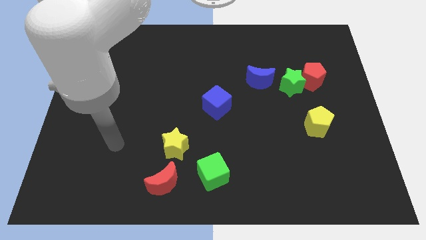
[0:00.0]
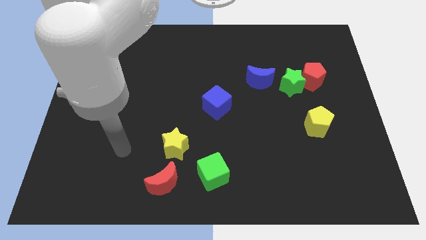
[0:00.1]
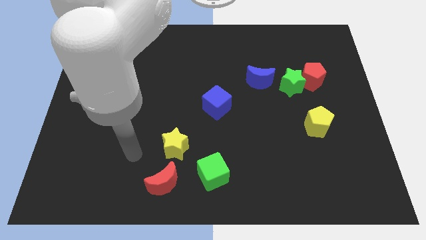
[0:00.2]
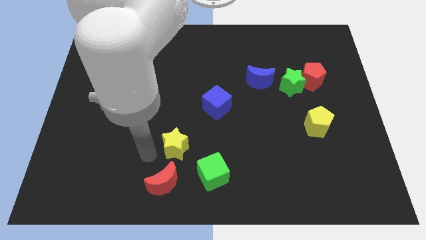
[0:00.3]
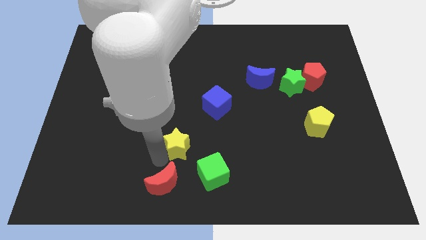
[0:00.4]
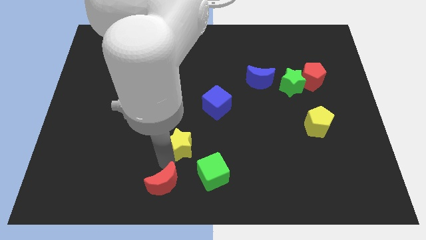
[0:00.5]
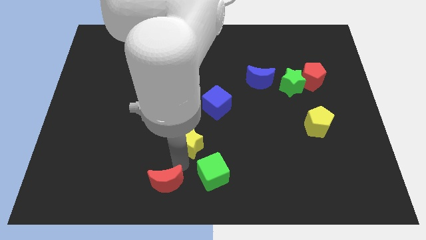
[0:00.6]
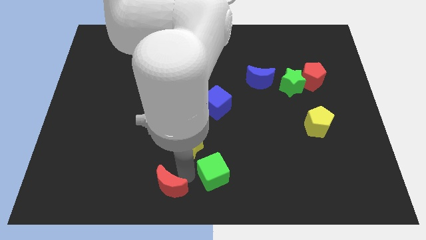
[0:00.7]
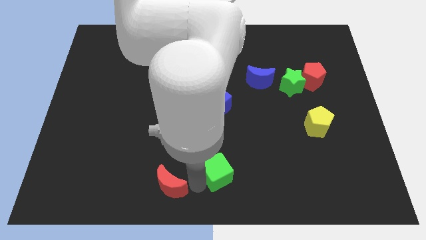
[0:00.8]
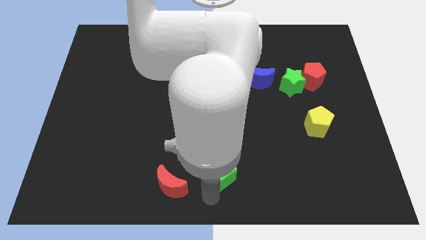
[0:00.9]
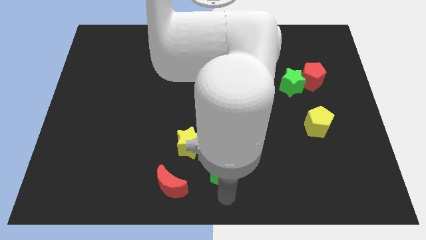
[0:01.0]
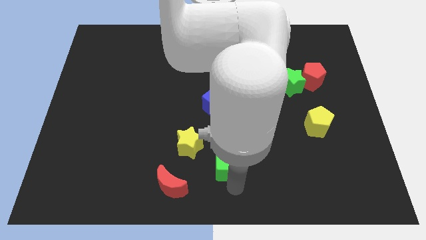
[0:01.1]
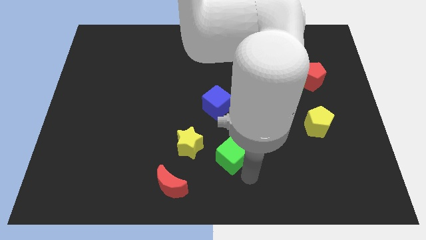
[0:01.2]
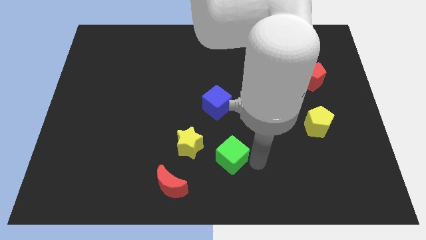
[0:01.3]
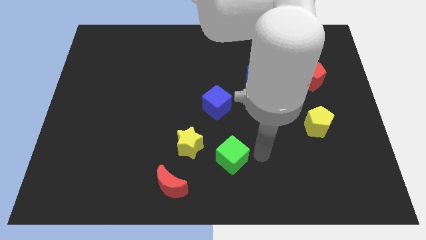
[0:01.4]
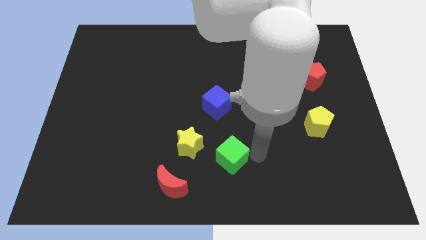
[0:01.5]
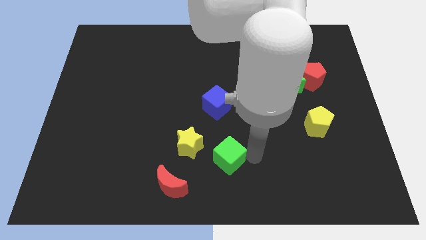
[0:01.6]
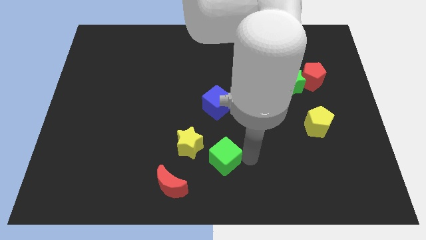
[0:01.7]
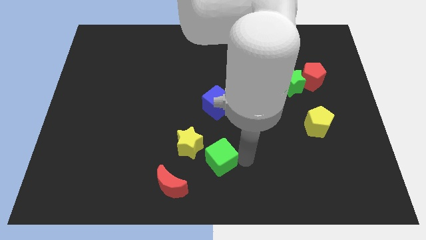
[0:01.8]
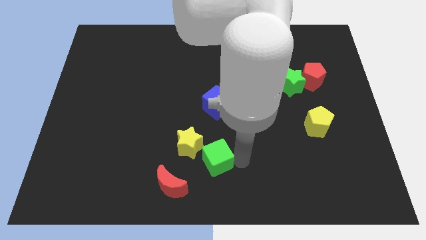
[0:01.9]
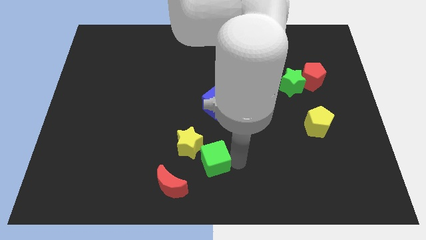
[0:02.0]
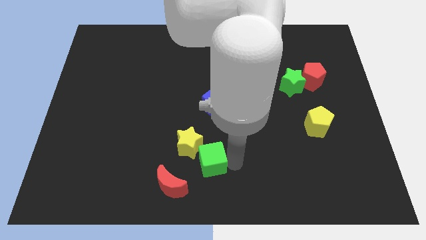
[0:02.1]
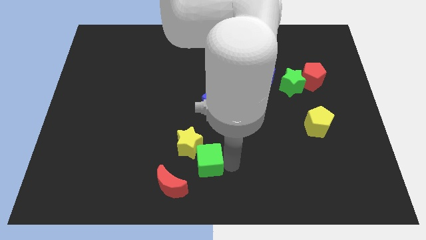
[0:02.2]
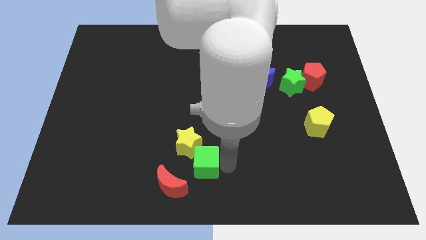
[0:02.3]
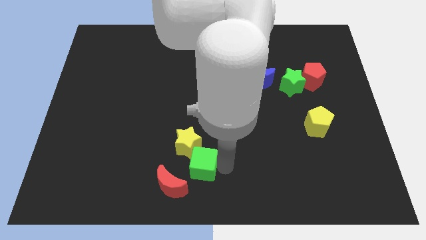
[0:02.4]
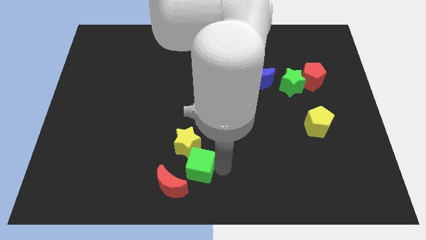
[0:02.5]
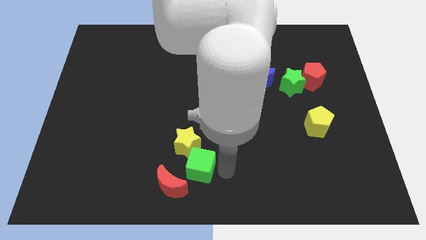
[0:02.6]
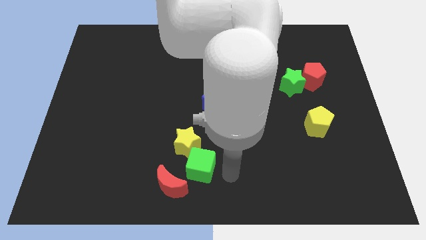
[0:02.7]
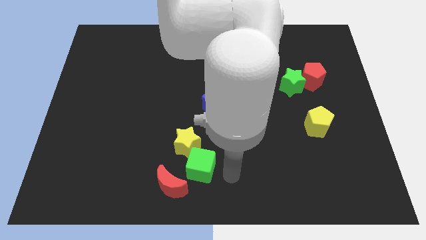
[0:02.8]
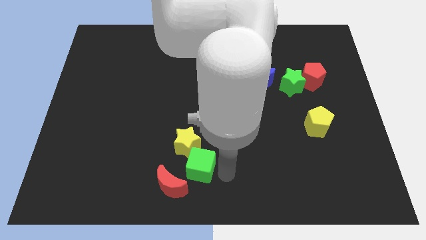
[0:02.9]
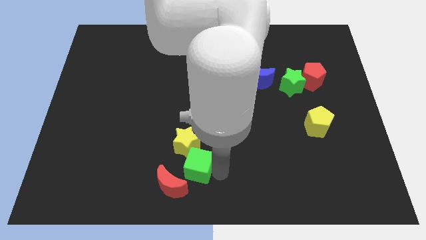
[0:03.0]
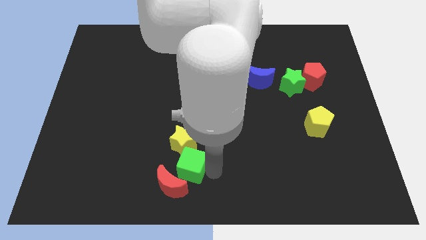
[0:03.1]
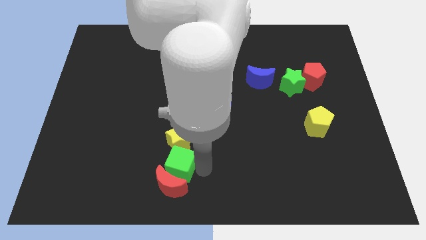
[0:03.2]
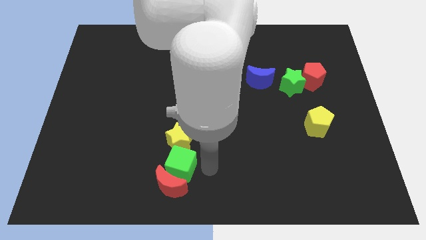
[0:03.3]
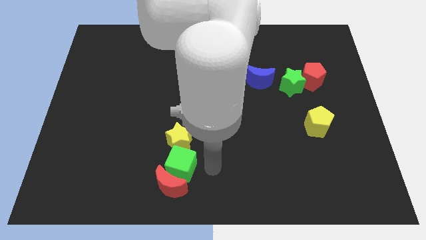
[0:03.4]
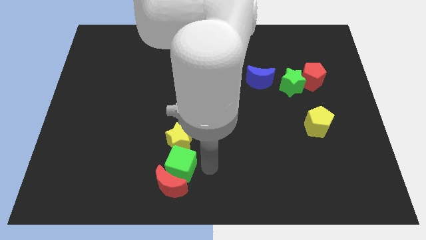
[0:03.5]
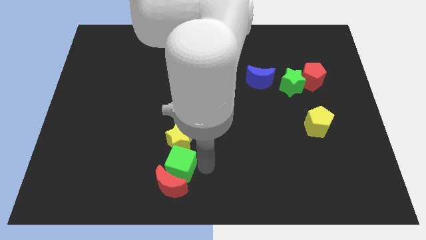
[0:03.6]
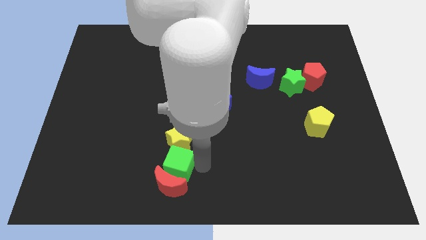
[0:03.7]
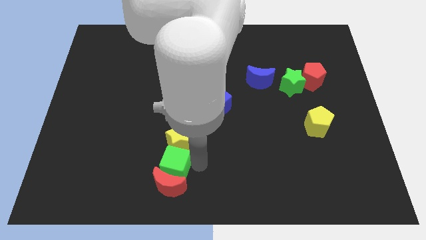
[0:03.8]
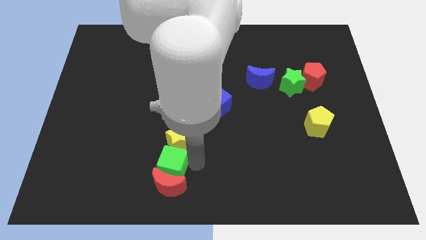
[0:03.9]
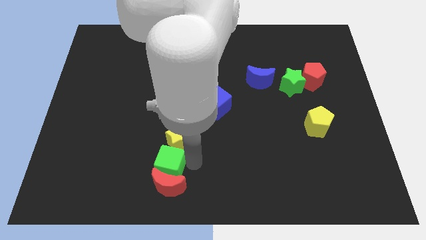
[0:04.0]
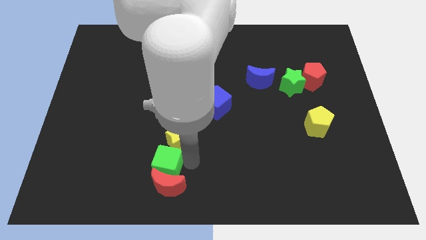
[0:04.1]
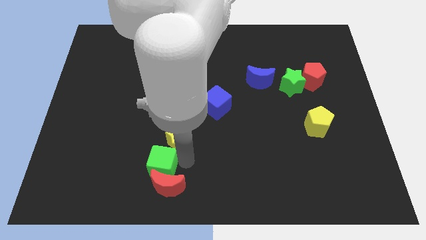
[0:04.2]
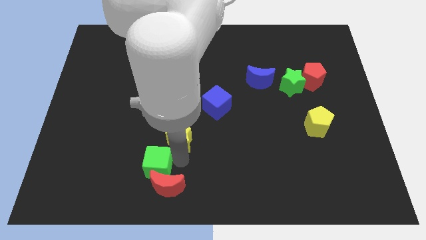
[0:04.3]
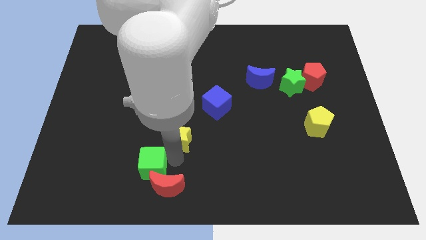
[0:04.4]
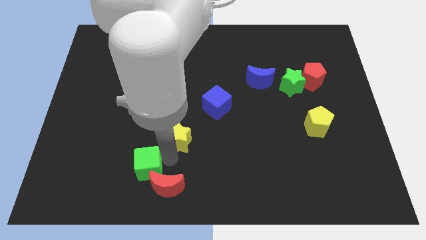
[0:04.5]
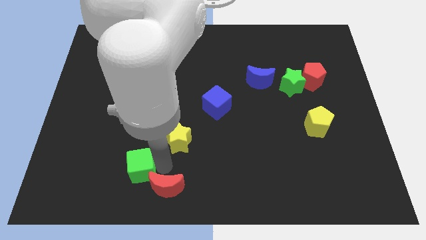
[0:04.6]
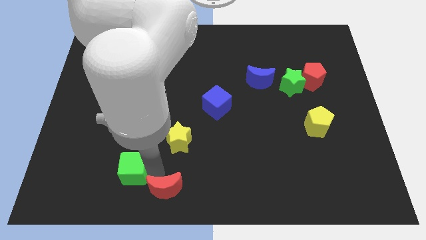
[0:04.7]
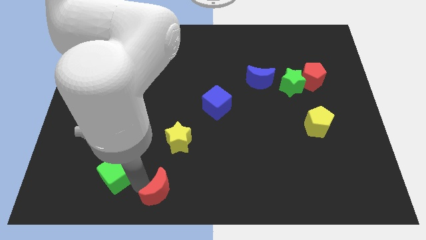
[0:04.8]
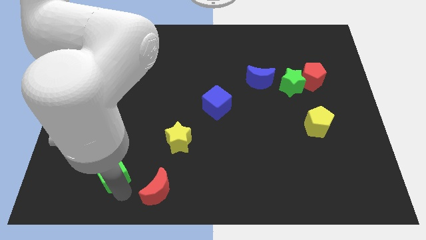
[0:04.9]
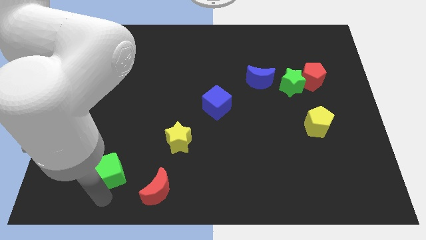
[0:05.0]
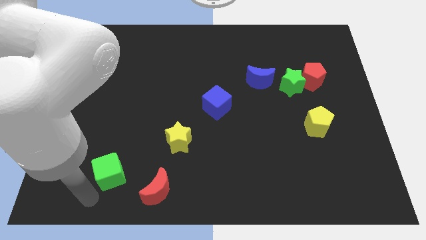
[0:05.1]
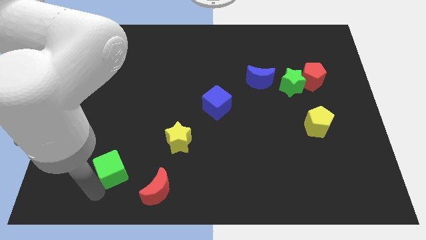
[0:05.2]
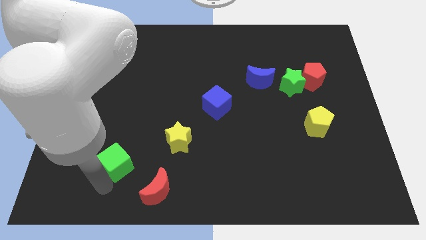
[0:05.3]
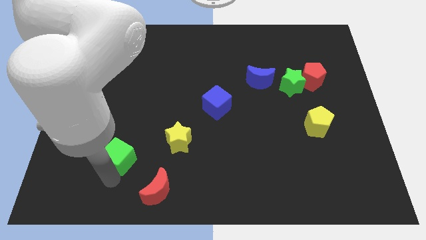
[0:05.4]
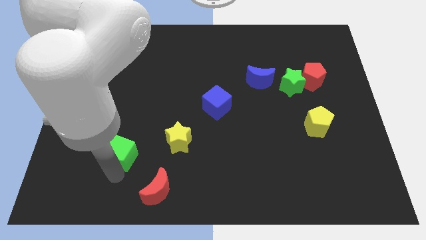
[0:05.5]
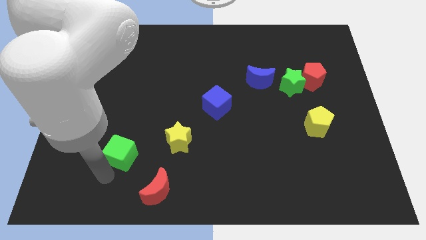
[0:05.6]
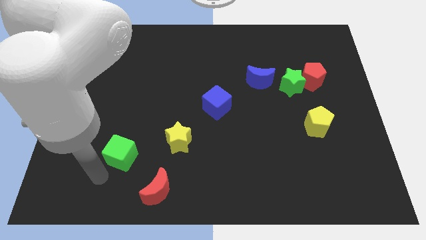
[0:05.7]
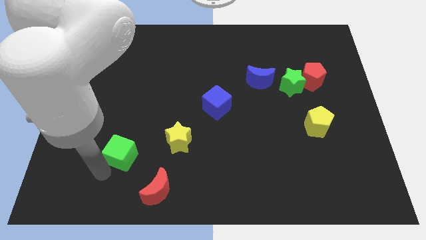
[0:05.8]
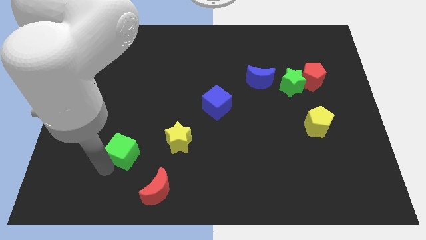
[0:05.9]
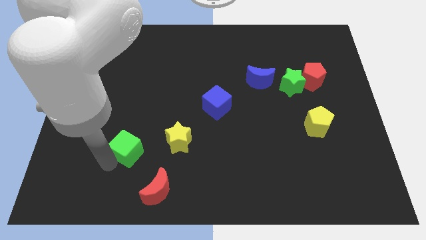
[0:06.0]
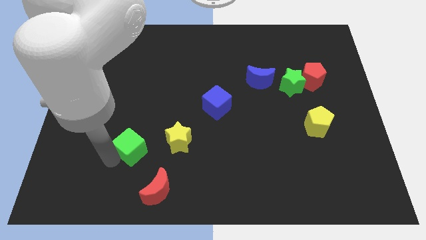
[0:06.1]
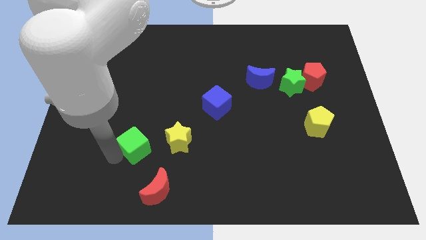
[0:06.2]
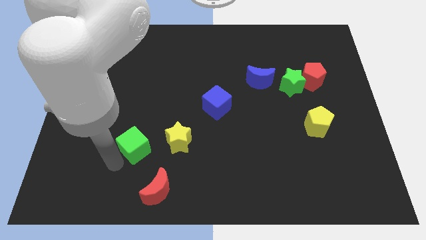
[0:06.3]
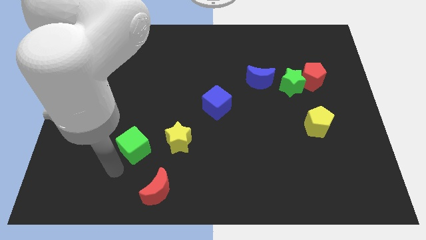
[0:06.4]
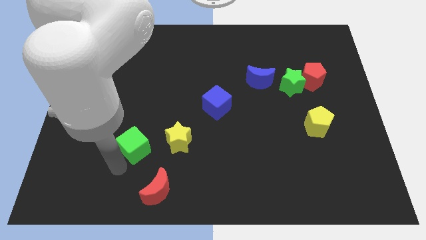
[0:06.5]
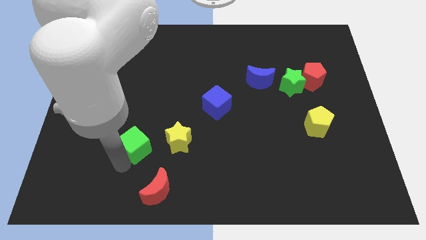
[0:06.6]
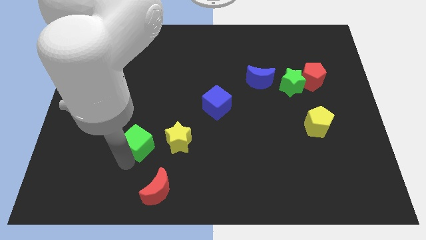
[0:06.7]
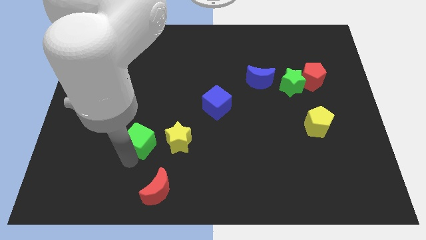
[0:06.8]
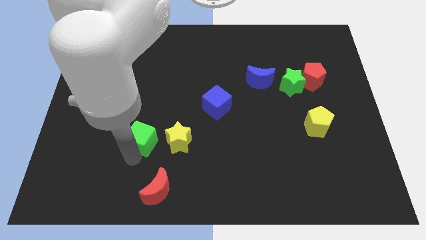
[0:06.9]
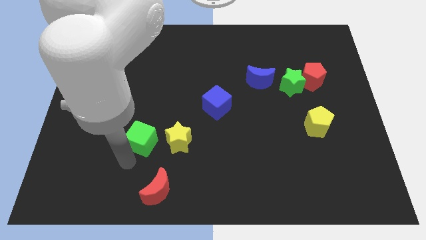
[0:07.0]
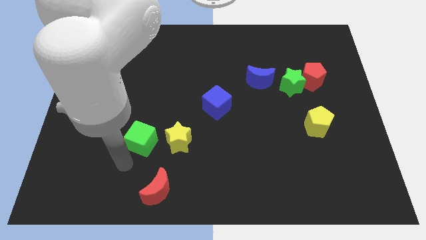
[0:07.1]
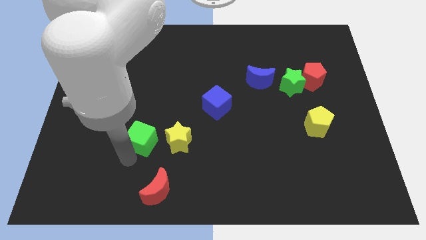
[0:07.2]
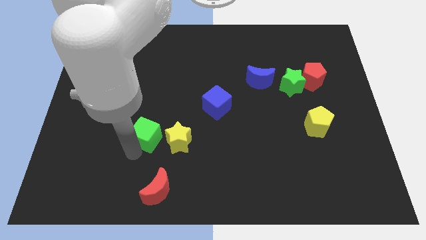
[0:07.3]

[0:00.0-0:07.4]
move the green cube to the top left side of the yellow star
